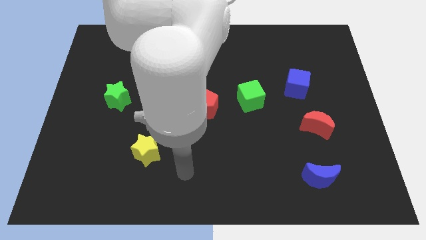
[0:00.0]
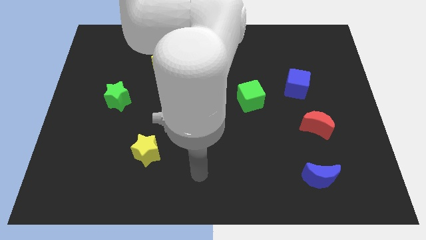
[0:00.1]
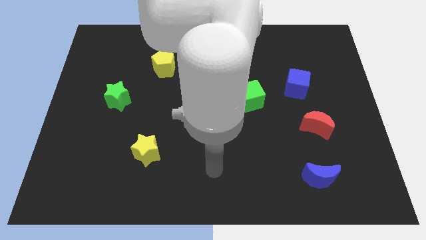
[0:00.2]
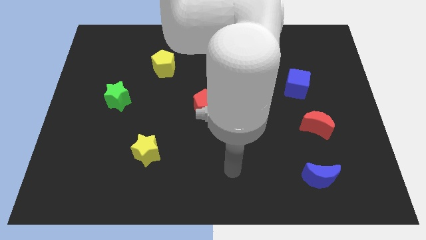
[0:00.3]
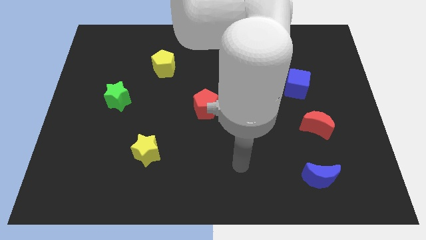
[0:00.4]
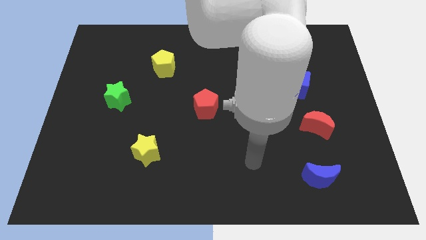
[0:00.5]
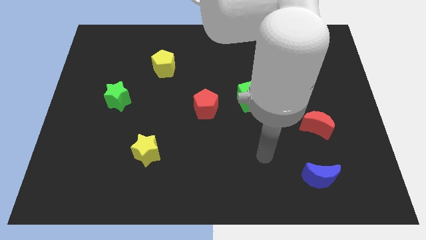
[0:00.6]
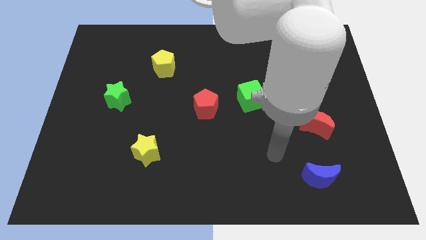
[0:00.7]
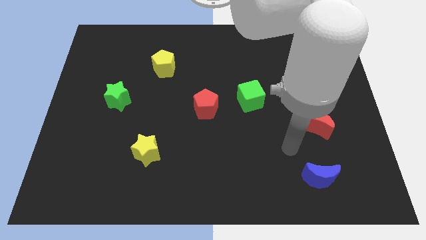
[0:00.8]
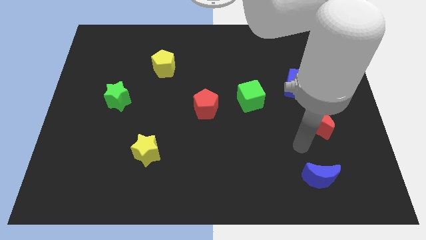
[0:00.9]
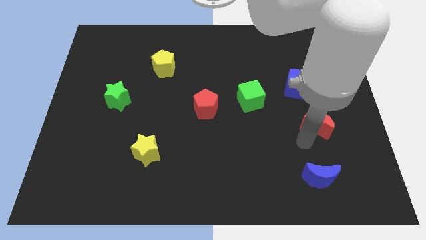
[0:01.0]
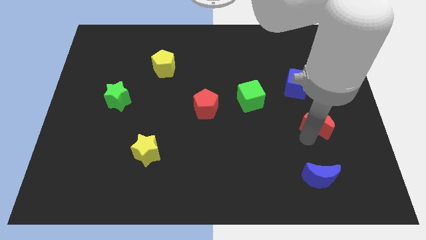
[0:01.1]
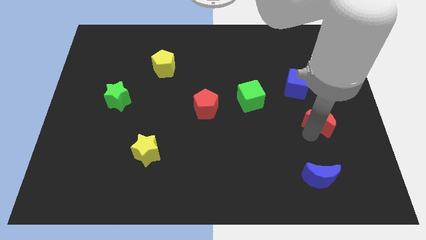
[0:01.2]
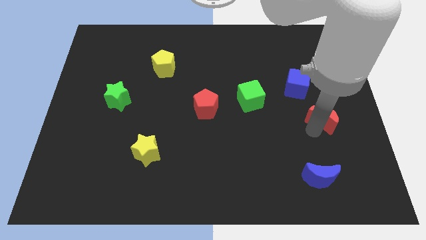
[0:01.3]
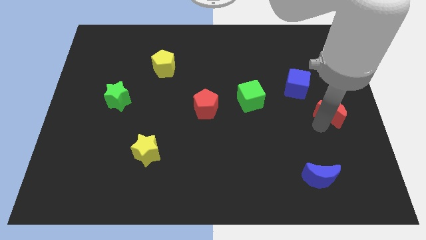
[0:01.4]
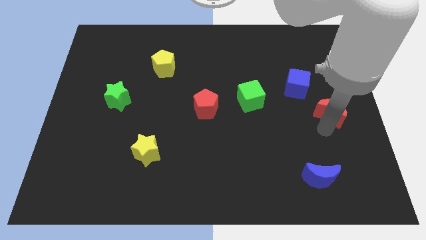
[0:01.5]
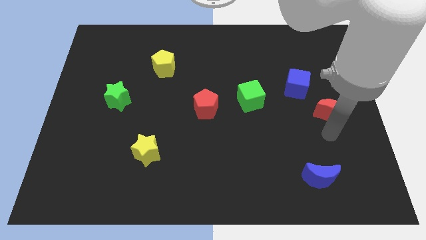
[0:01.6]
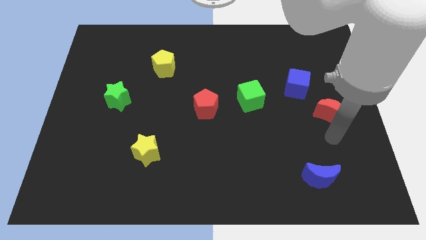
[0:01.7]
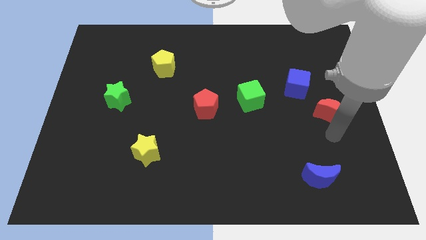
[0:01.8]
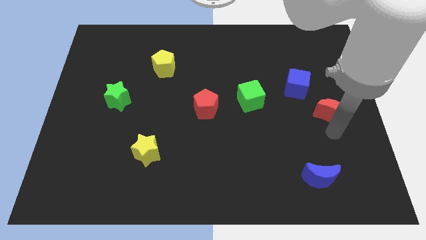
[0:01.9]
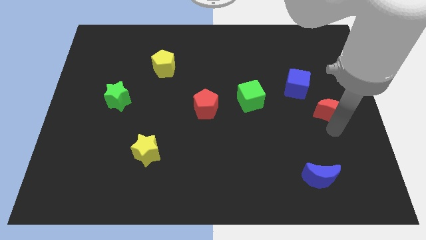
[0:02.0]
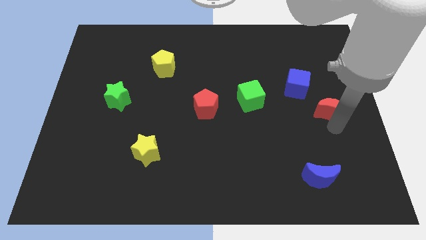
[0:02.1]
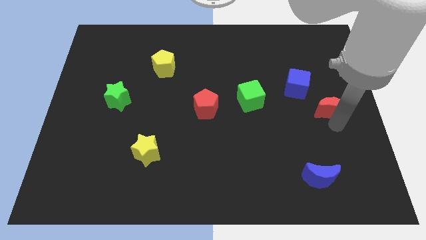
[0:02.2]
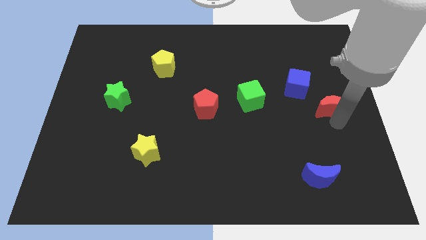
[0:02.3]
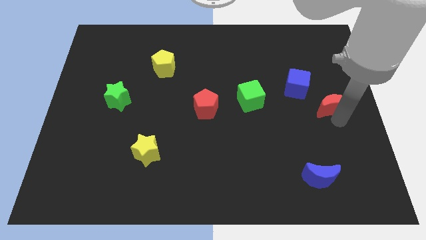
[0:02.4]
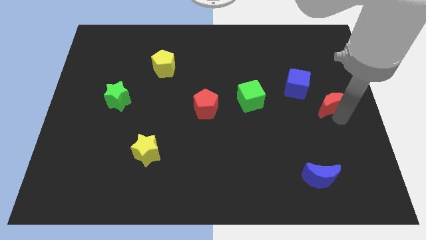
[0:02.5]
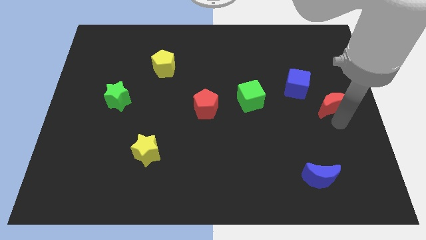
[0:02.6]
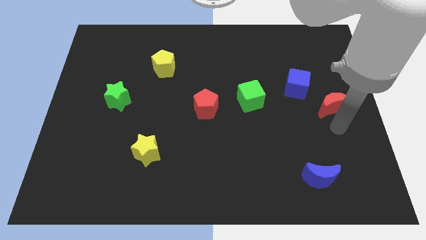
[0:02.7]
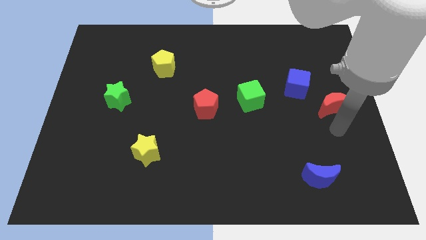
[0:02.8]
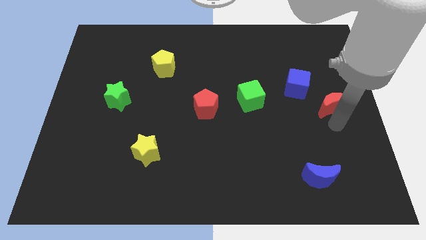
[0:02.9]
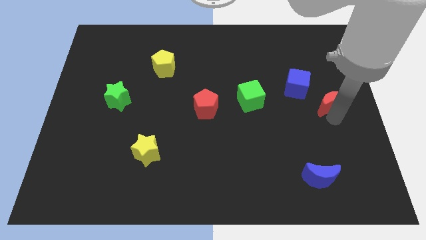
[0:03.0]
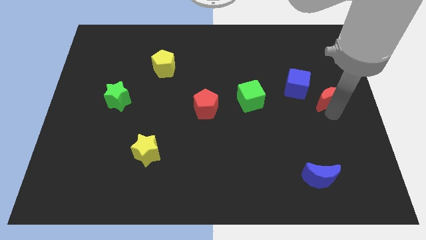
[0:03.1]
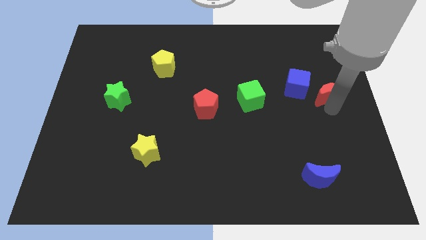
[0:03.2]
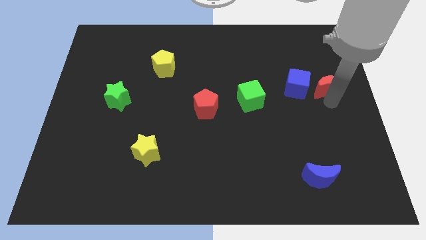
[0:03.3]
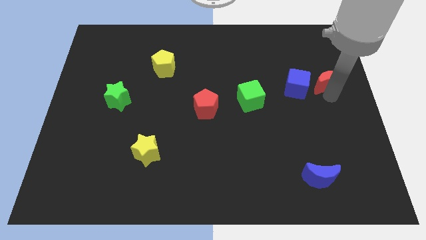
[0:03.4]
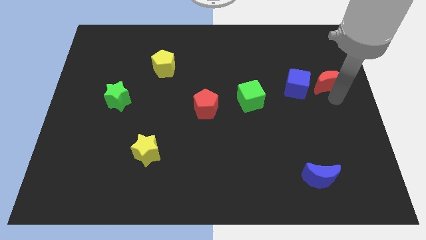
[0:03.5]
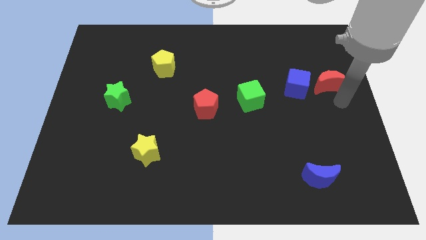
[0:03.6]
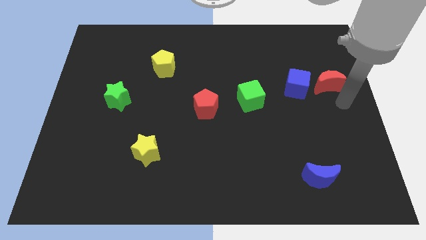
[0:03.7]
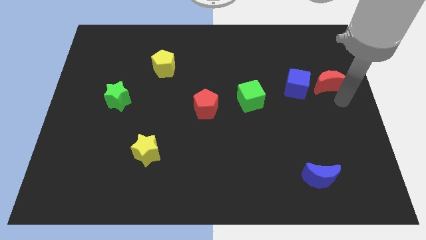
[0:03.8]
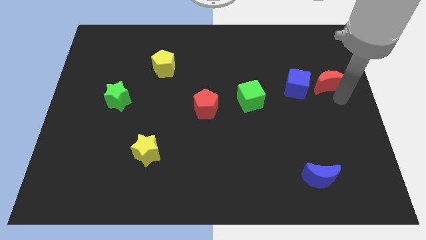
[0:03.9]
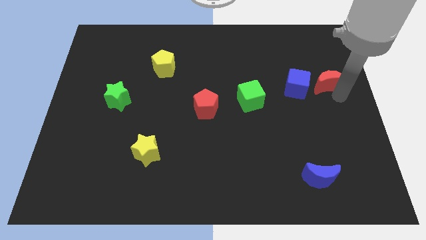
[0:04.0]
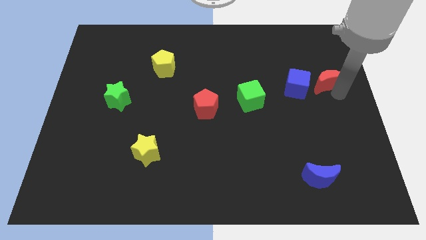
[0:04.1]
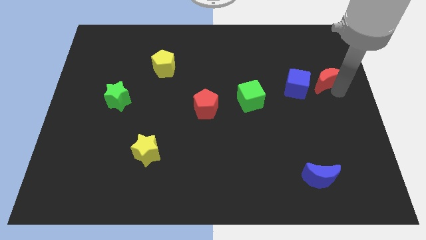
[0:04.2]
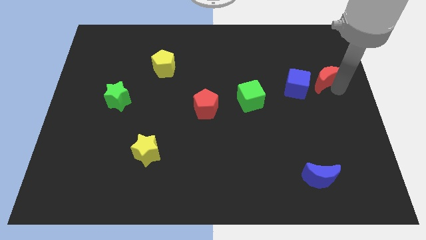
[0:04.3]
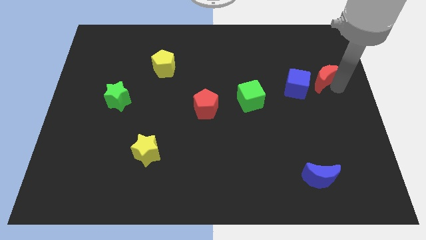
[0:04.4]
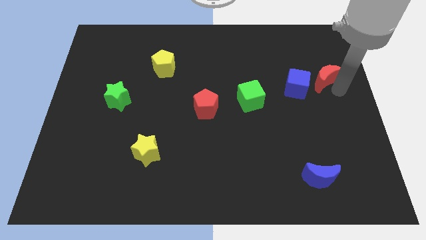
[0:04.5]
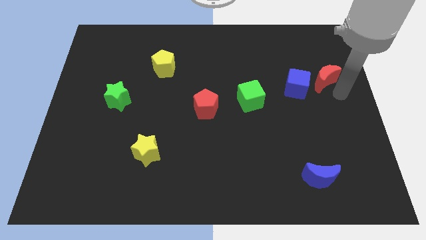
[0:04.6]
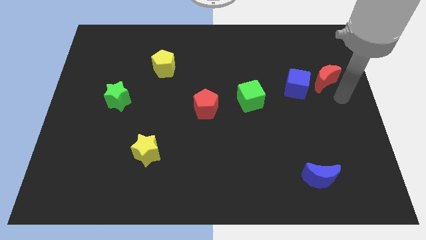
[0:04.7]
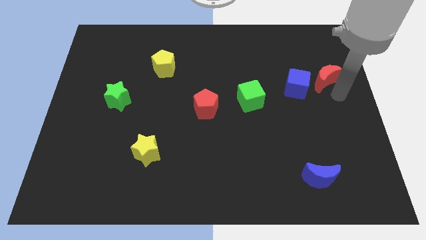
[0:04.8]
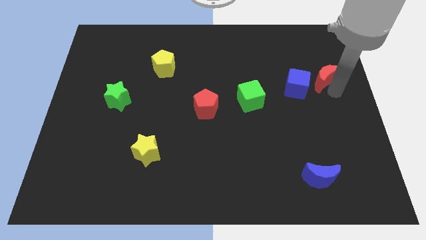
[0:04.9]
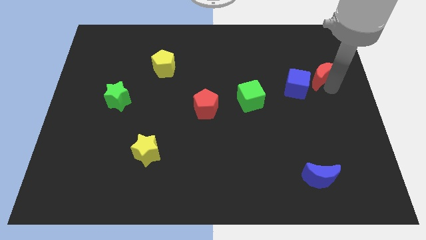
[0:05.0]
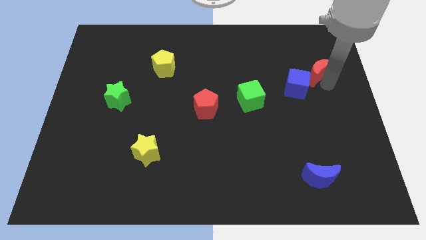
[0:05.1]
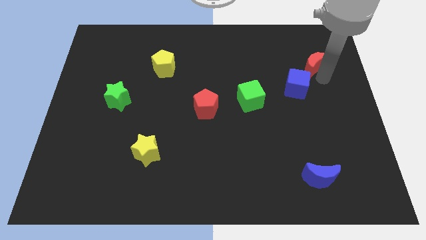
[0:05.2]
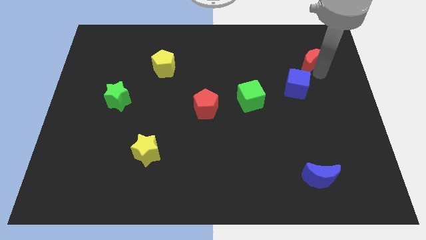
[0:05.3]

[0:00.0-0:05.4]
move the red moon to the top of the blue cube

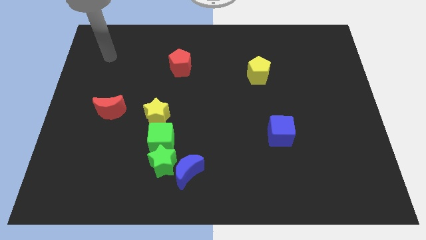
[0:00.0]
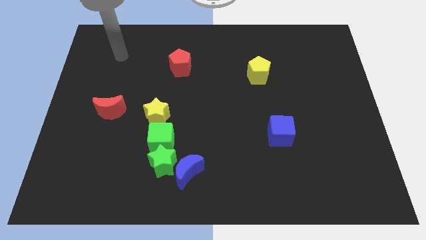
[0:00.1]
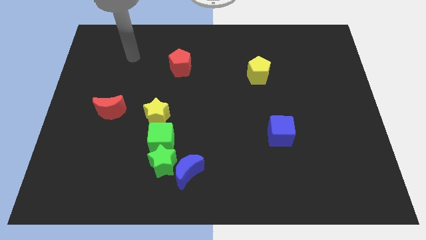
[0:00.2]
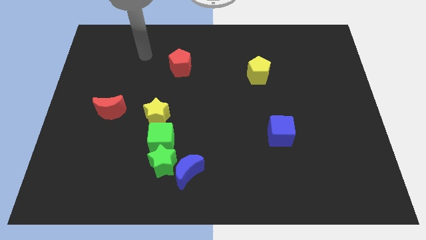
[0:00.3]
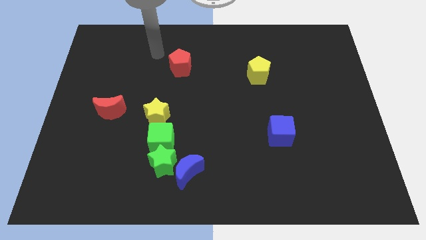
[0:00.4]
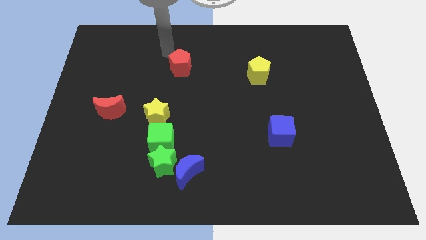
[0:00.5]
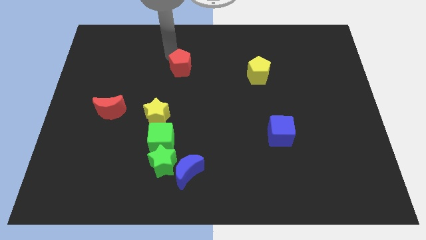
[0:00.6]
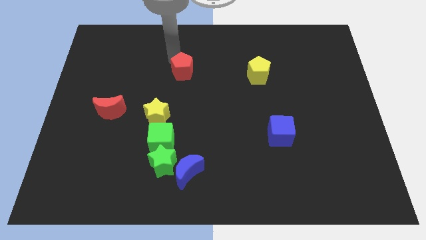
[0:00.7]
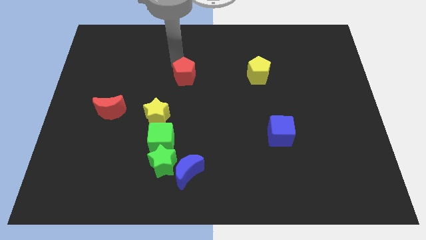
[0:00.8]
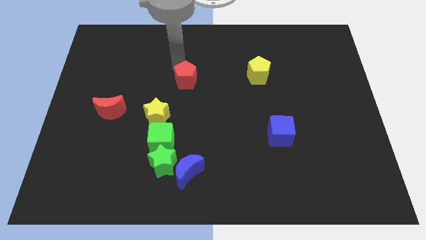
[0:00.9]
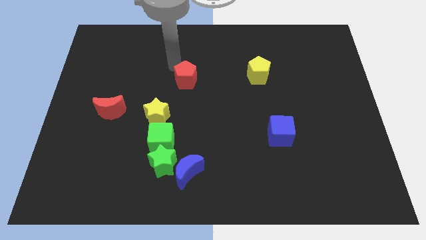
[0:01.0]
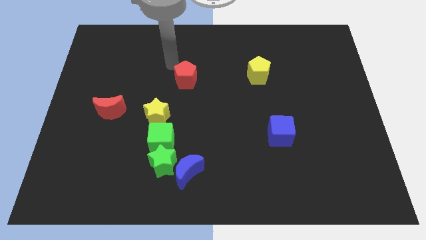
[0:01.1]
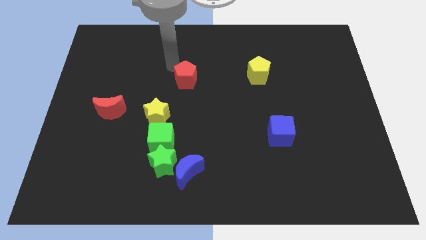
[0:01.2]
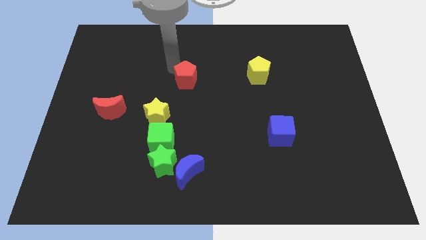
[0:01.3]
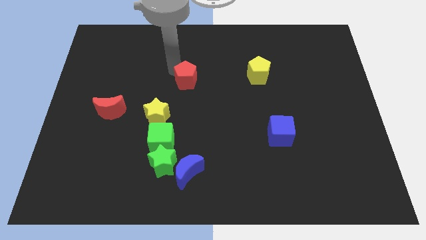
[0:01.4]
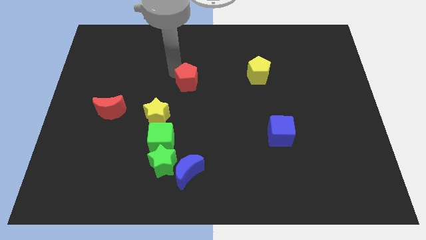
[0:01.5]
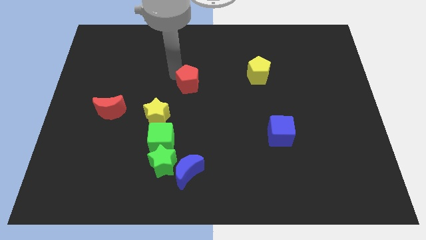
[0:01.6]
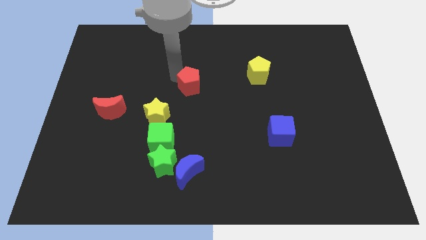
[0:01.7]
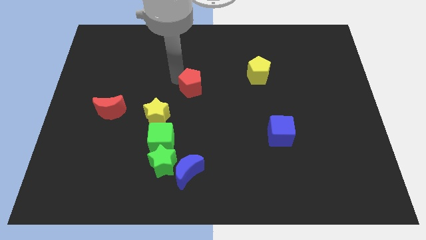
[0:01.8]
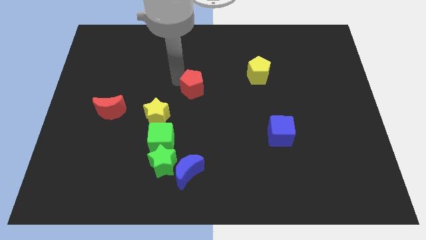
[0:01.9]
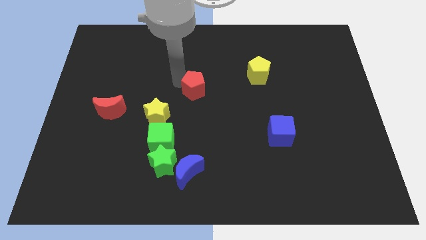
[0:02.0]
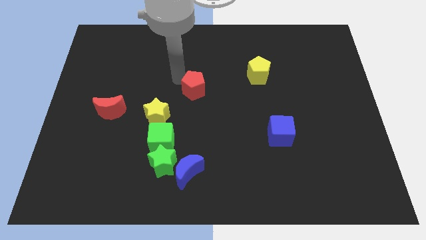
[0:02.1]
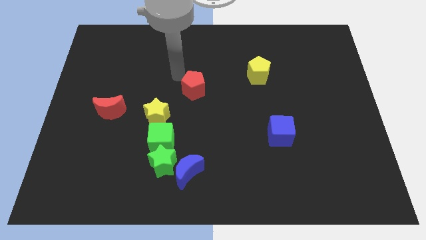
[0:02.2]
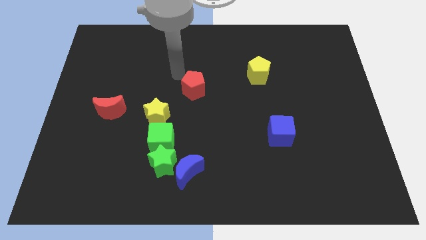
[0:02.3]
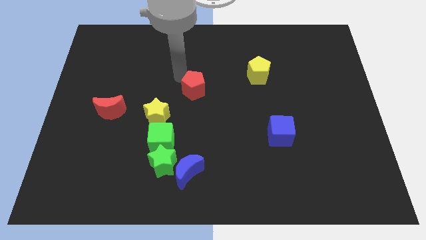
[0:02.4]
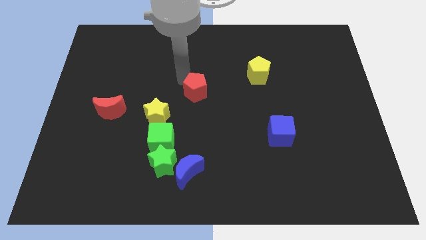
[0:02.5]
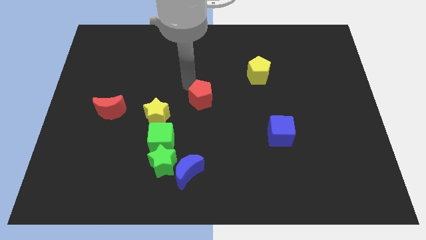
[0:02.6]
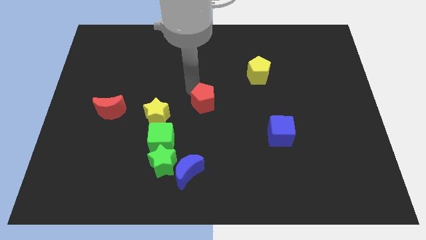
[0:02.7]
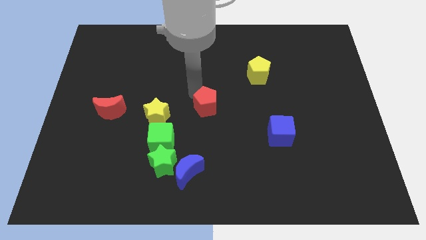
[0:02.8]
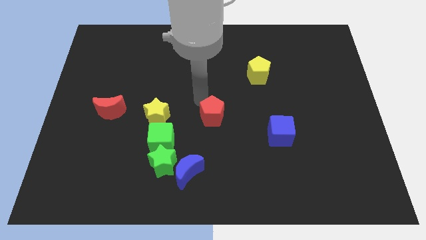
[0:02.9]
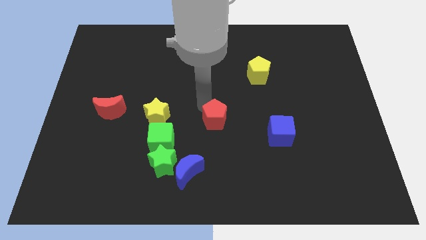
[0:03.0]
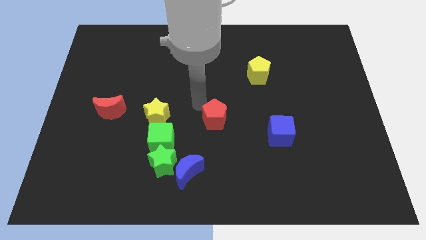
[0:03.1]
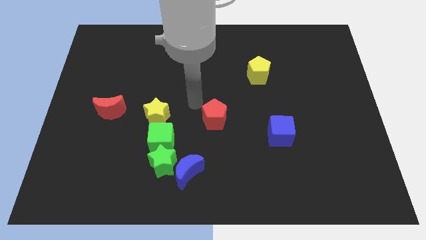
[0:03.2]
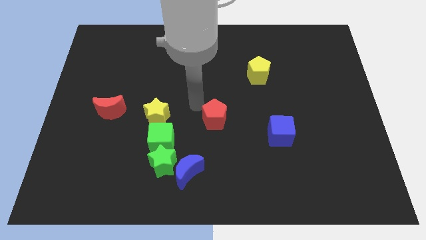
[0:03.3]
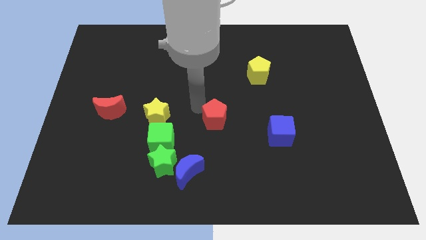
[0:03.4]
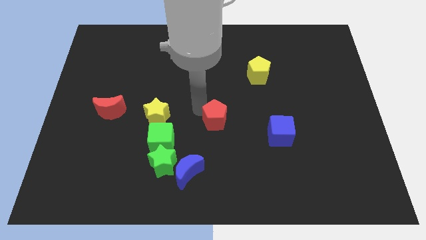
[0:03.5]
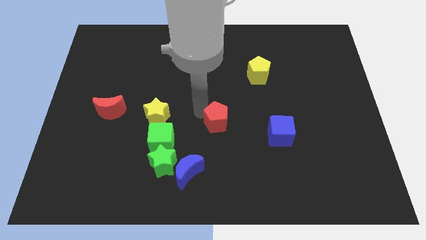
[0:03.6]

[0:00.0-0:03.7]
move the red pentagon to the left of the blue cube
